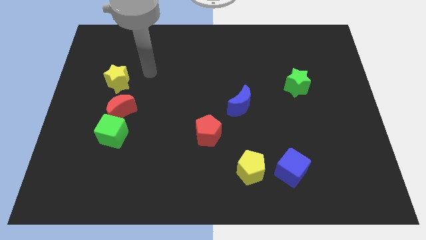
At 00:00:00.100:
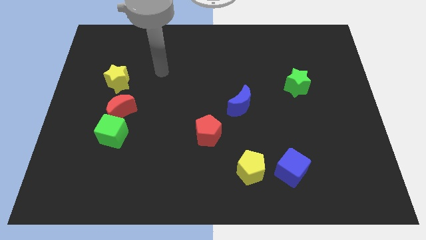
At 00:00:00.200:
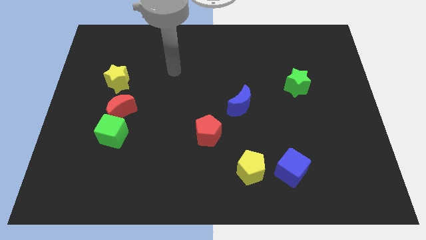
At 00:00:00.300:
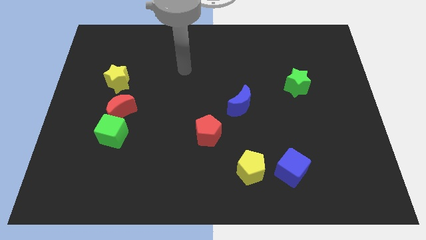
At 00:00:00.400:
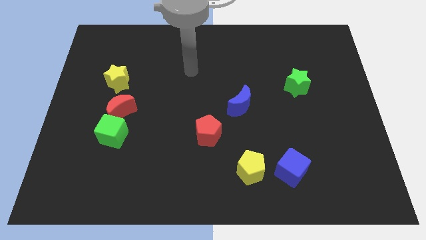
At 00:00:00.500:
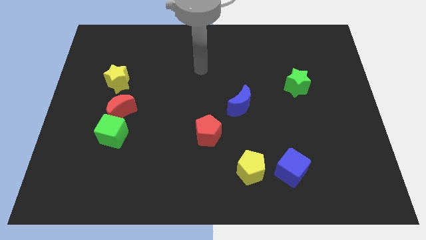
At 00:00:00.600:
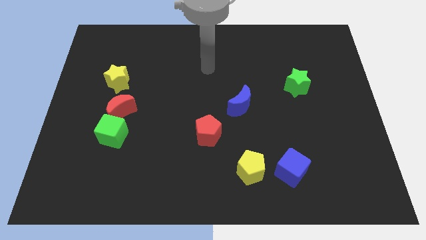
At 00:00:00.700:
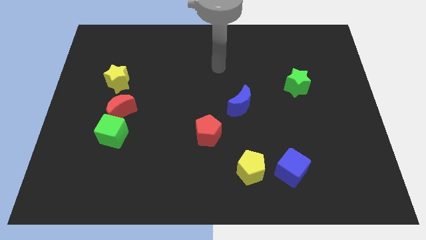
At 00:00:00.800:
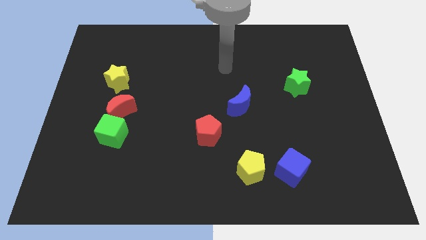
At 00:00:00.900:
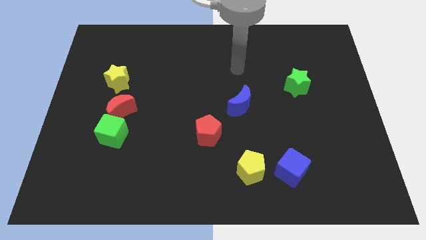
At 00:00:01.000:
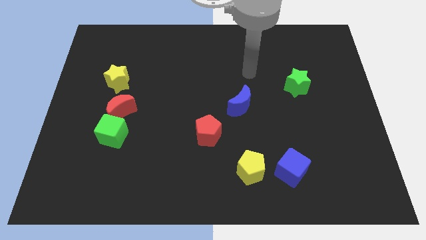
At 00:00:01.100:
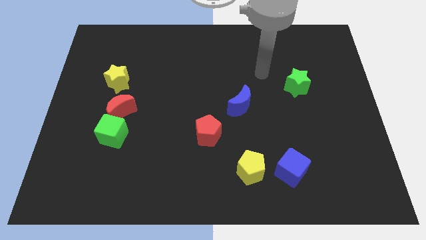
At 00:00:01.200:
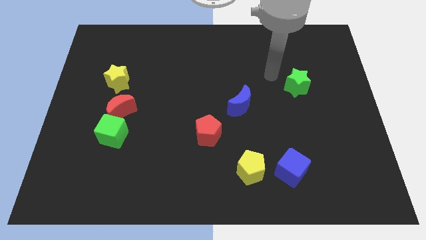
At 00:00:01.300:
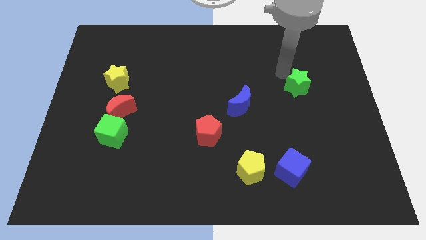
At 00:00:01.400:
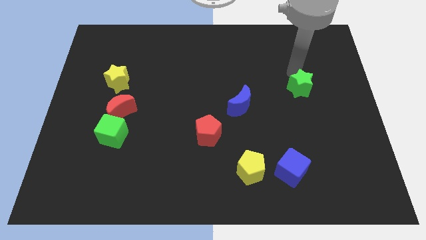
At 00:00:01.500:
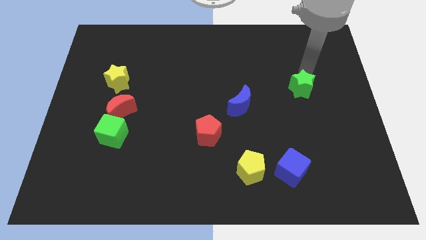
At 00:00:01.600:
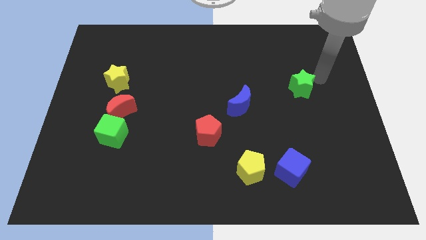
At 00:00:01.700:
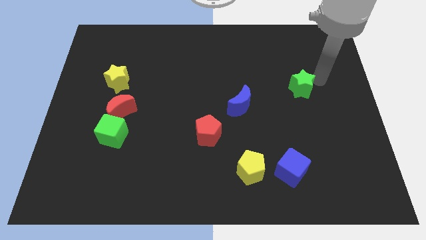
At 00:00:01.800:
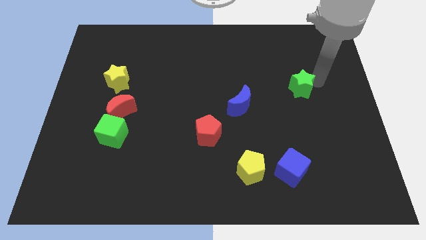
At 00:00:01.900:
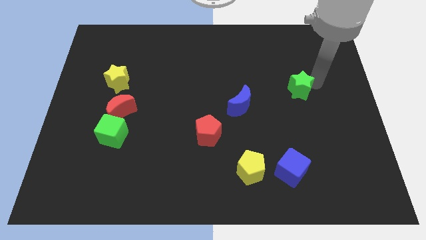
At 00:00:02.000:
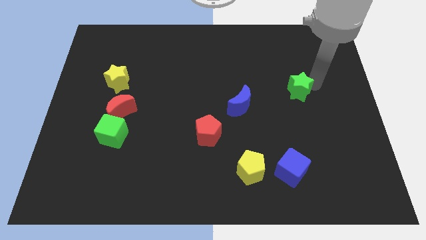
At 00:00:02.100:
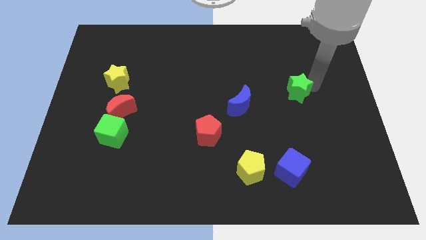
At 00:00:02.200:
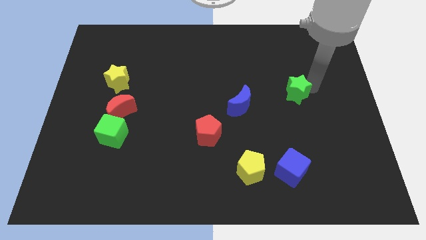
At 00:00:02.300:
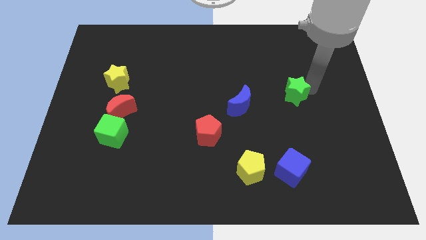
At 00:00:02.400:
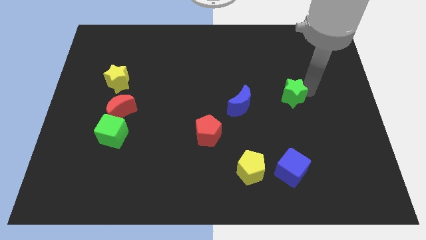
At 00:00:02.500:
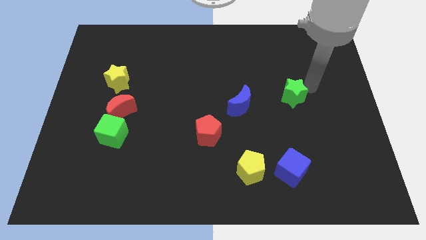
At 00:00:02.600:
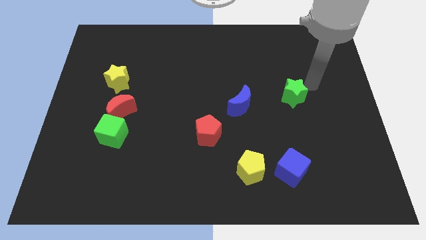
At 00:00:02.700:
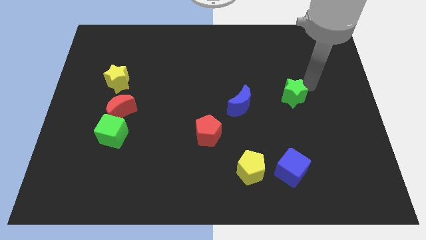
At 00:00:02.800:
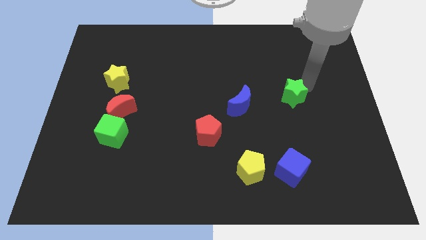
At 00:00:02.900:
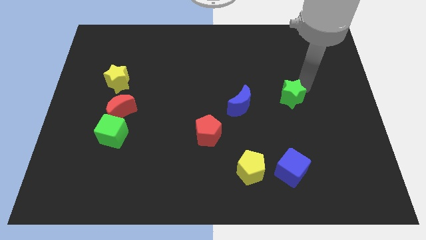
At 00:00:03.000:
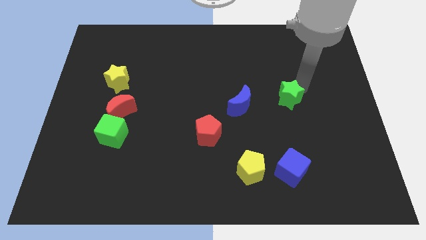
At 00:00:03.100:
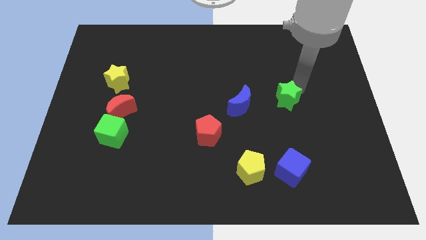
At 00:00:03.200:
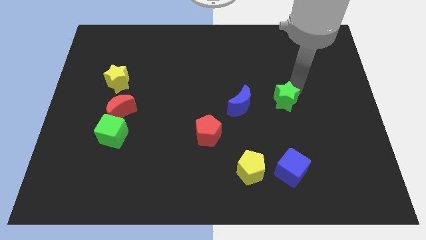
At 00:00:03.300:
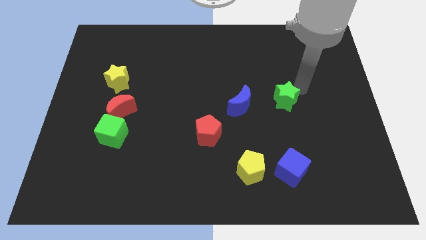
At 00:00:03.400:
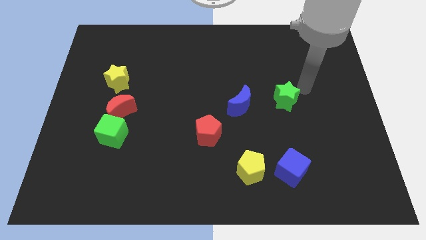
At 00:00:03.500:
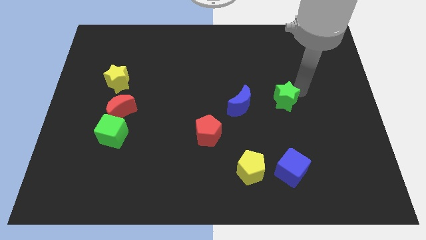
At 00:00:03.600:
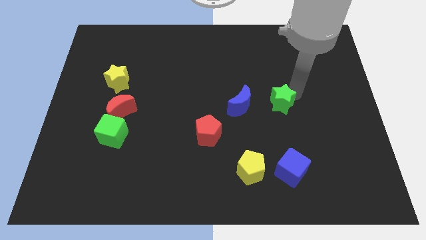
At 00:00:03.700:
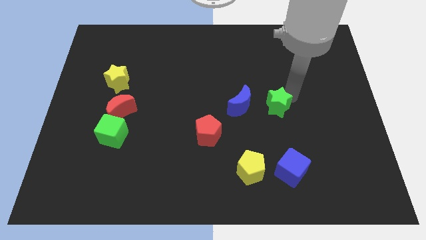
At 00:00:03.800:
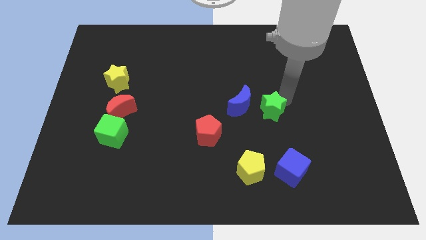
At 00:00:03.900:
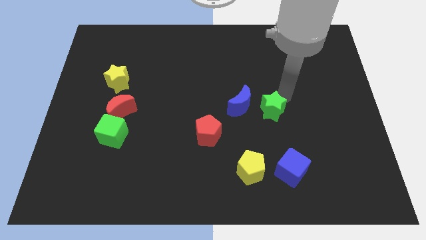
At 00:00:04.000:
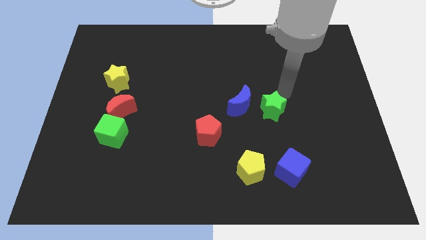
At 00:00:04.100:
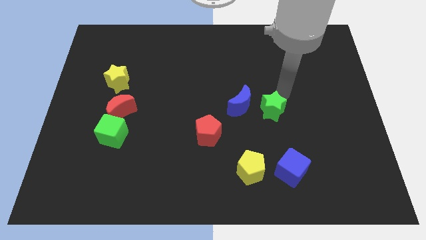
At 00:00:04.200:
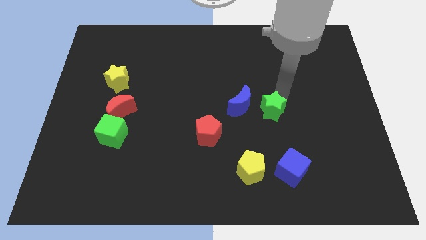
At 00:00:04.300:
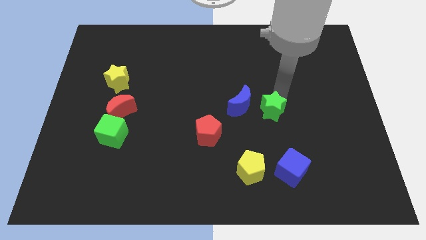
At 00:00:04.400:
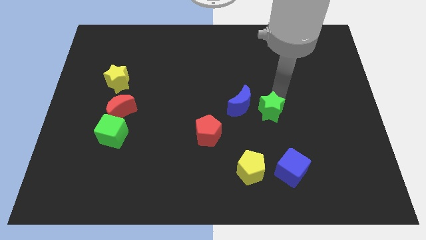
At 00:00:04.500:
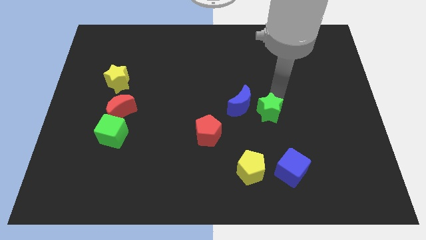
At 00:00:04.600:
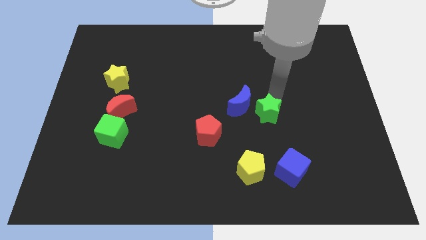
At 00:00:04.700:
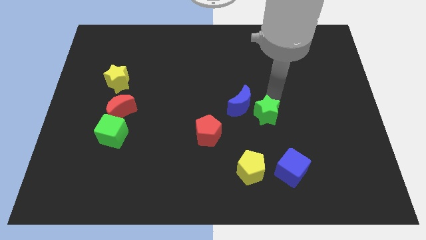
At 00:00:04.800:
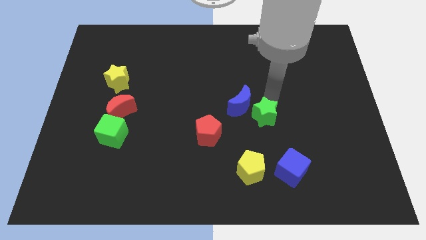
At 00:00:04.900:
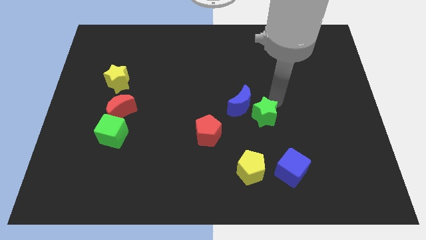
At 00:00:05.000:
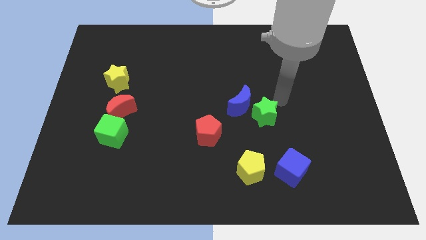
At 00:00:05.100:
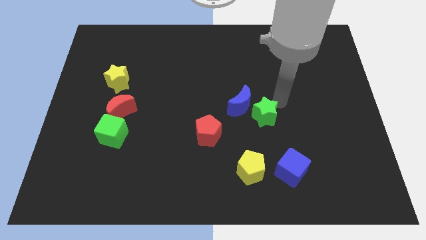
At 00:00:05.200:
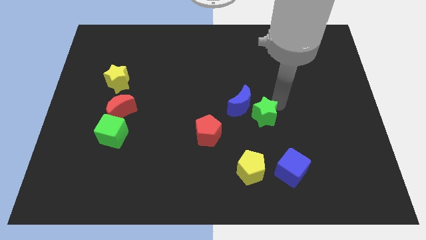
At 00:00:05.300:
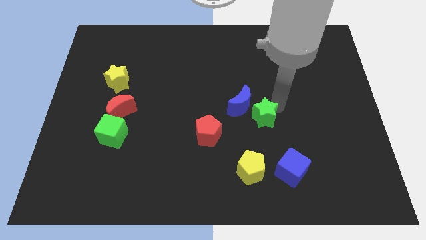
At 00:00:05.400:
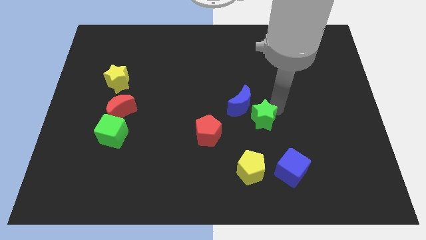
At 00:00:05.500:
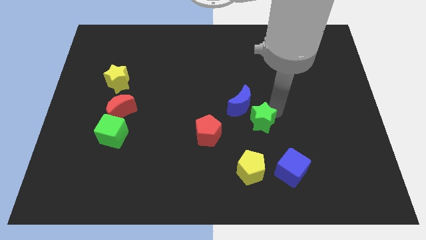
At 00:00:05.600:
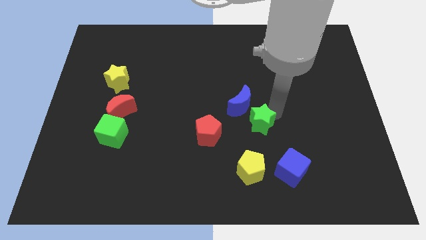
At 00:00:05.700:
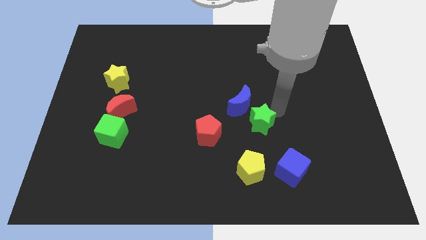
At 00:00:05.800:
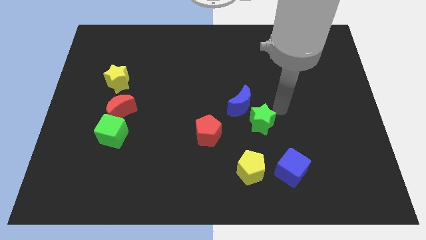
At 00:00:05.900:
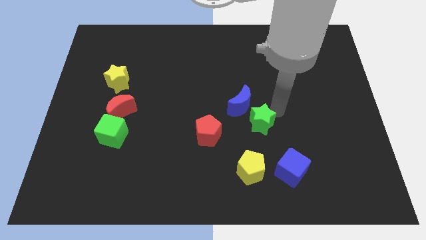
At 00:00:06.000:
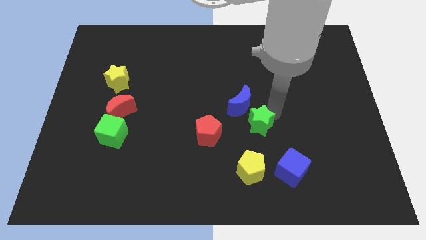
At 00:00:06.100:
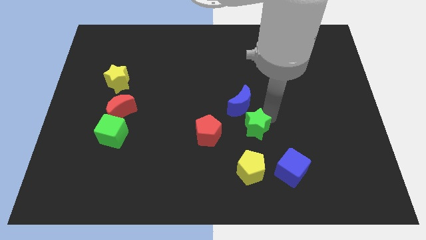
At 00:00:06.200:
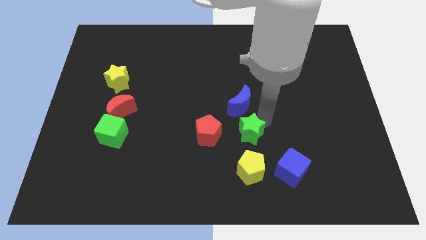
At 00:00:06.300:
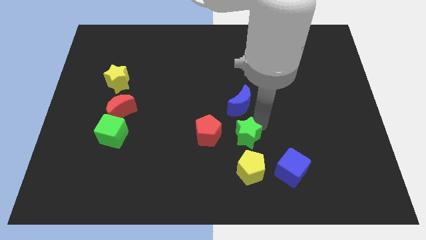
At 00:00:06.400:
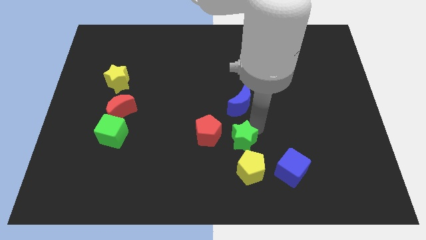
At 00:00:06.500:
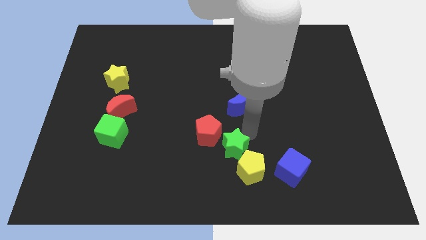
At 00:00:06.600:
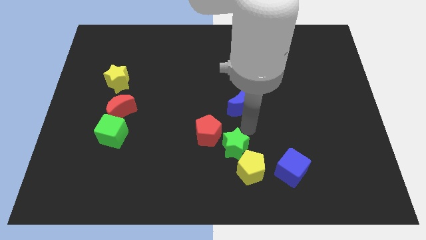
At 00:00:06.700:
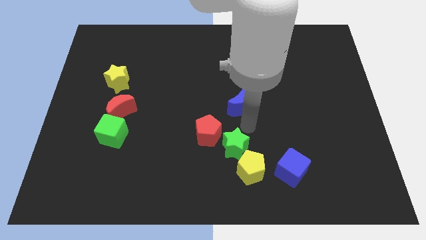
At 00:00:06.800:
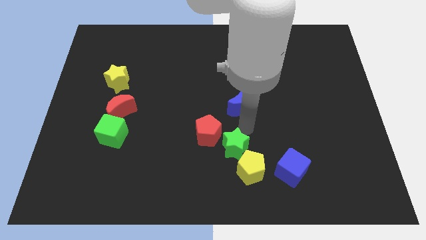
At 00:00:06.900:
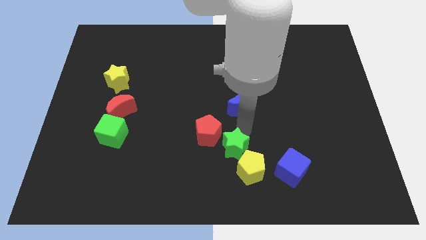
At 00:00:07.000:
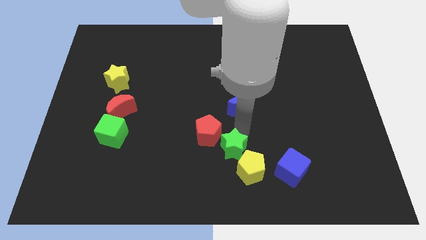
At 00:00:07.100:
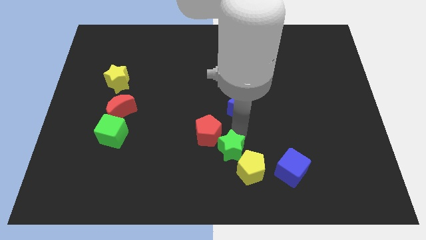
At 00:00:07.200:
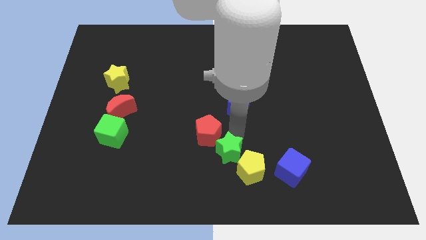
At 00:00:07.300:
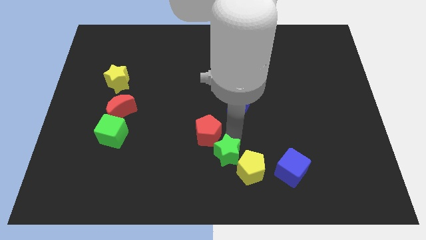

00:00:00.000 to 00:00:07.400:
slide the green star to the bottom
